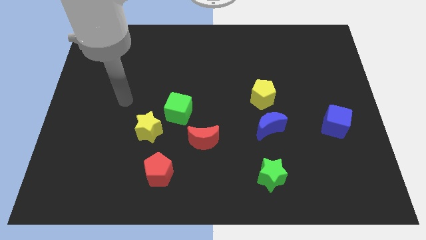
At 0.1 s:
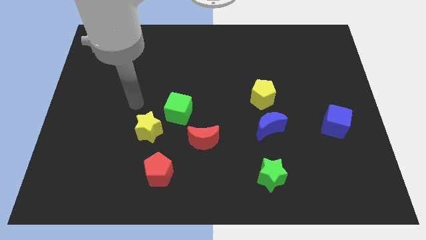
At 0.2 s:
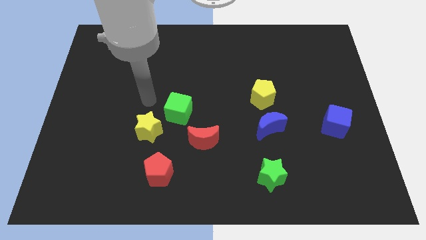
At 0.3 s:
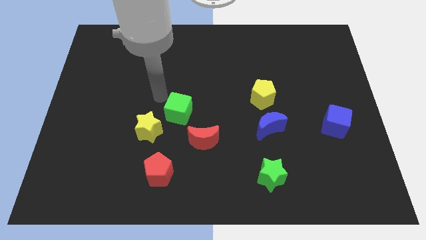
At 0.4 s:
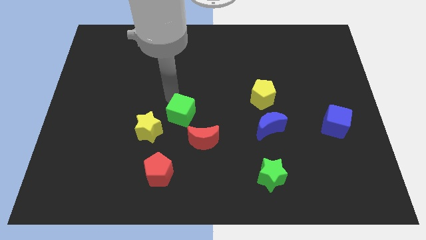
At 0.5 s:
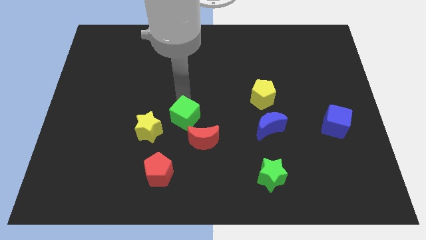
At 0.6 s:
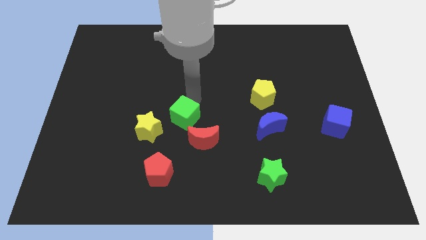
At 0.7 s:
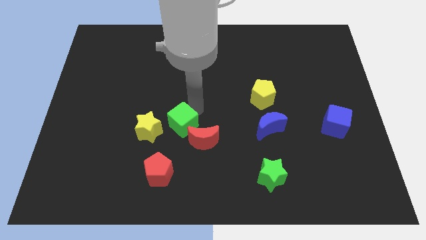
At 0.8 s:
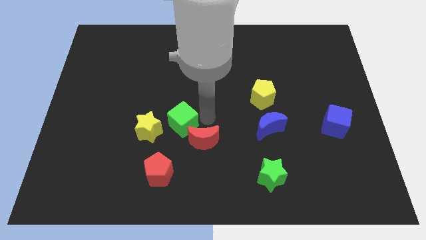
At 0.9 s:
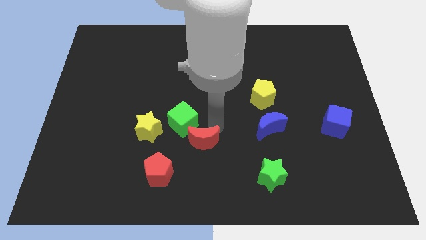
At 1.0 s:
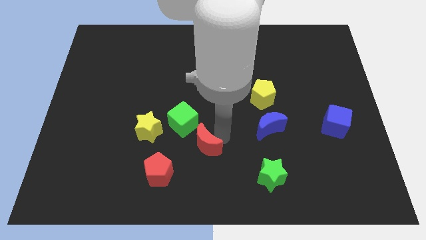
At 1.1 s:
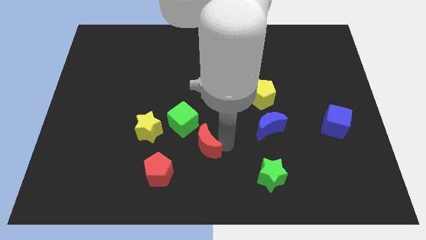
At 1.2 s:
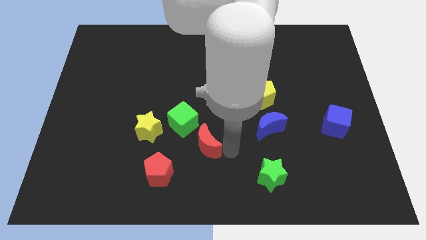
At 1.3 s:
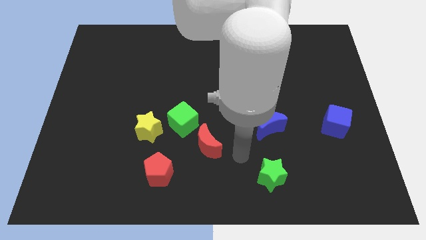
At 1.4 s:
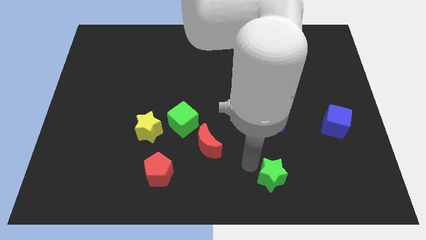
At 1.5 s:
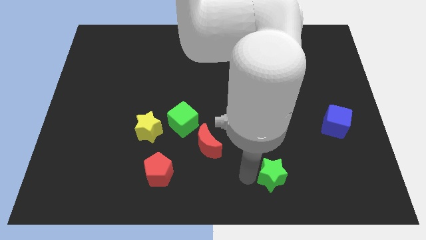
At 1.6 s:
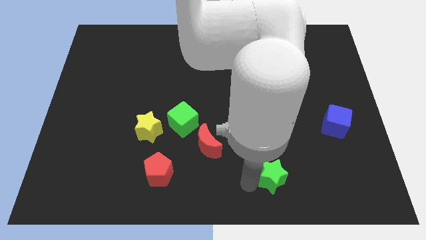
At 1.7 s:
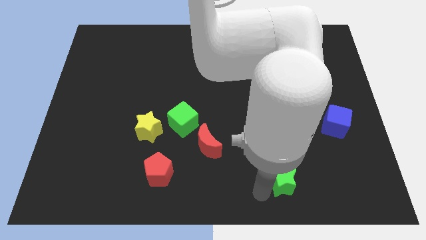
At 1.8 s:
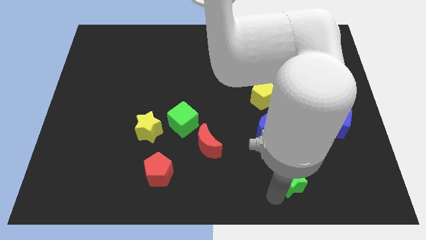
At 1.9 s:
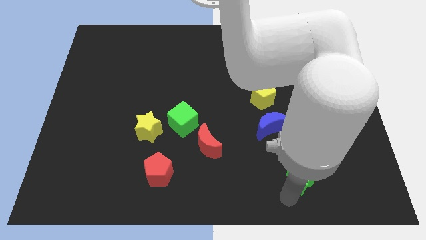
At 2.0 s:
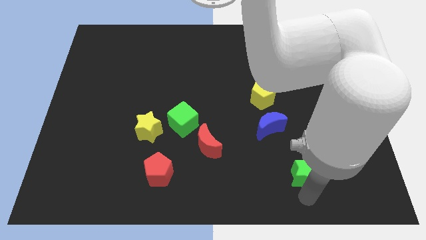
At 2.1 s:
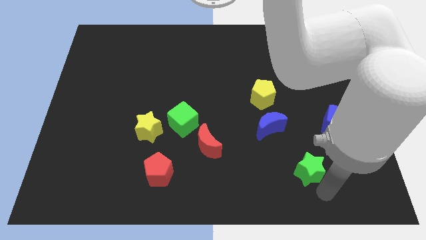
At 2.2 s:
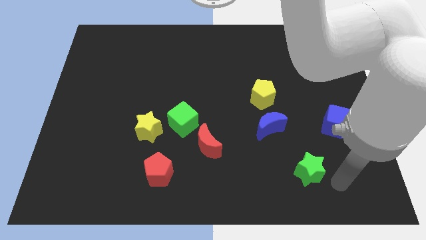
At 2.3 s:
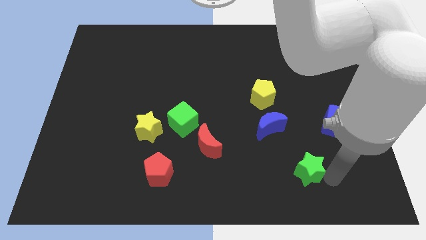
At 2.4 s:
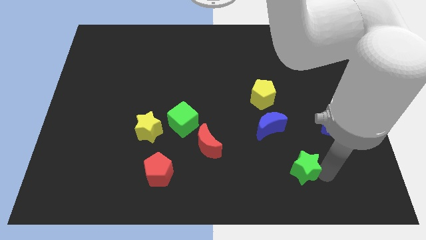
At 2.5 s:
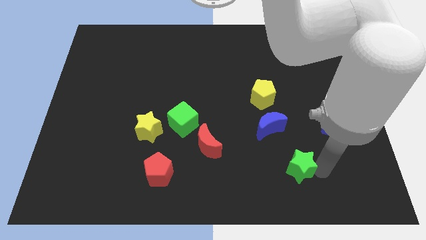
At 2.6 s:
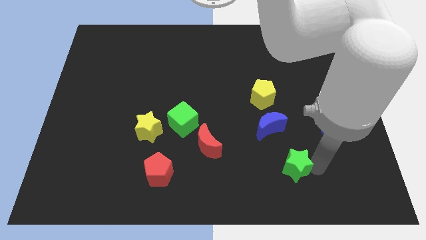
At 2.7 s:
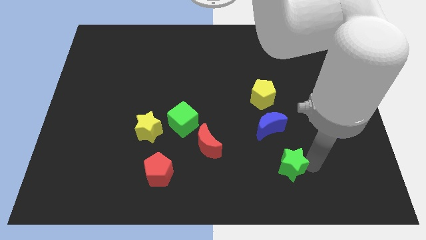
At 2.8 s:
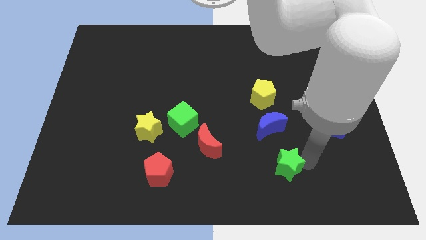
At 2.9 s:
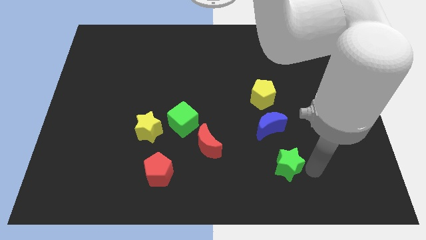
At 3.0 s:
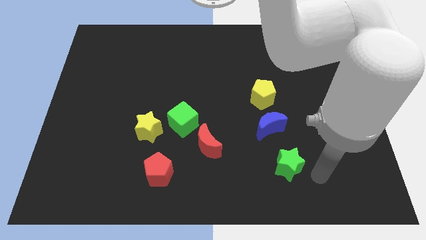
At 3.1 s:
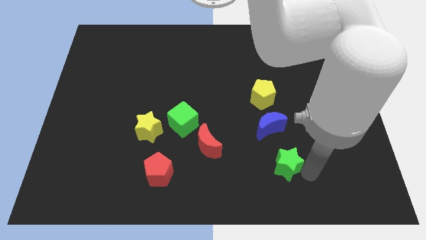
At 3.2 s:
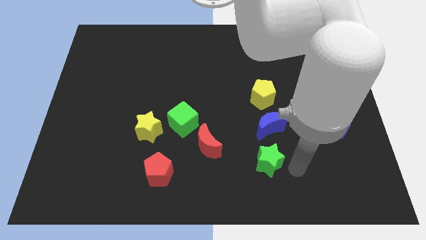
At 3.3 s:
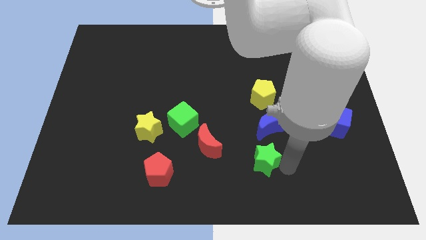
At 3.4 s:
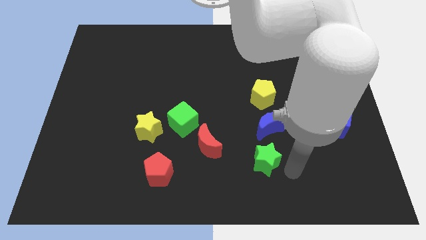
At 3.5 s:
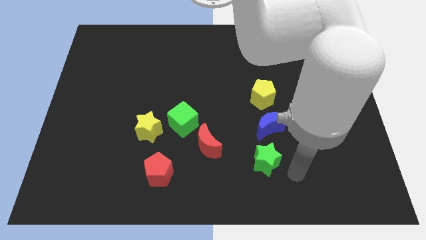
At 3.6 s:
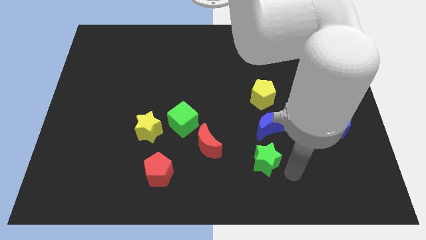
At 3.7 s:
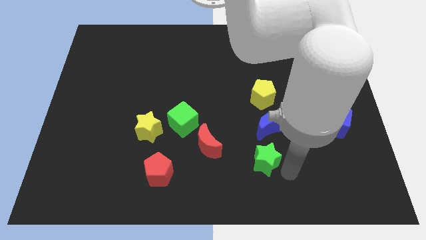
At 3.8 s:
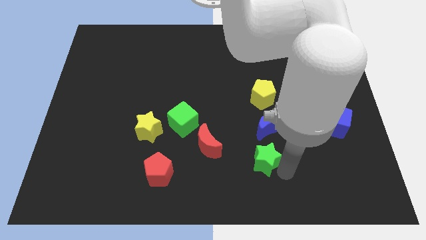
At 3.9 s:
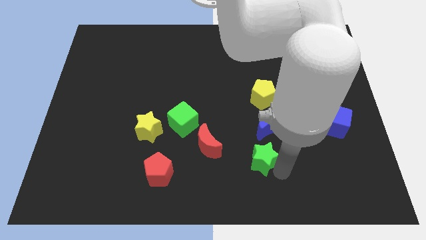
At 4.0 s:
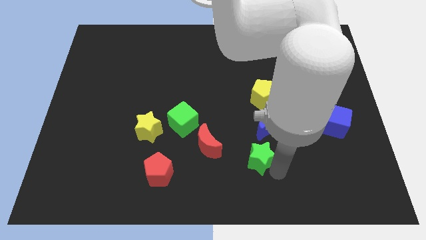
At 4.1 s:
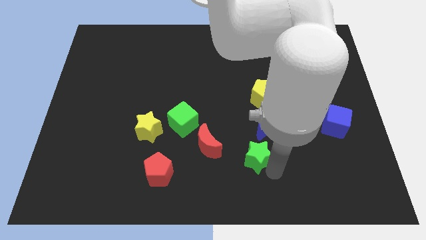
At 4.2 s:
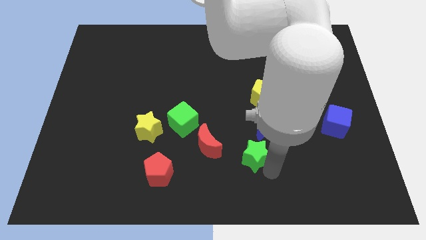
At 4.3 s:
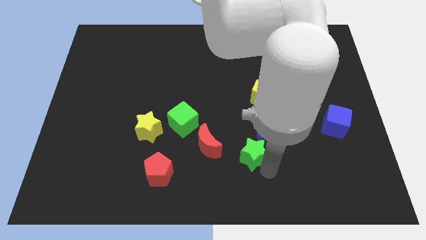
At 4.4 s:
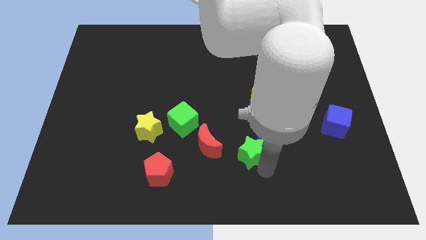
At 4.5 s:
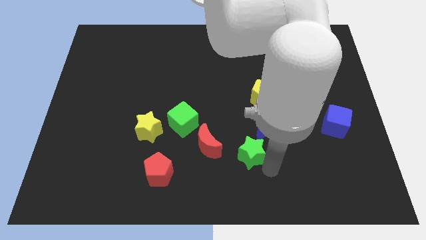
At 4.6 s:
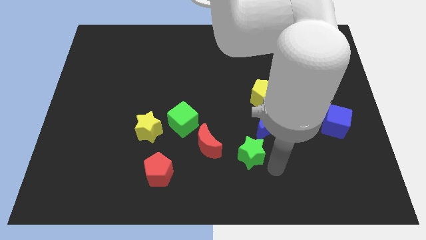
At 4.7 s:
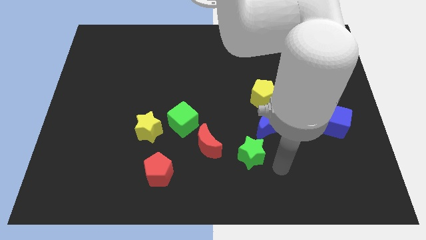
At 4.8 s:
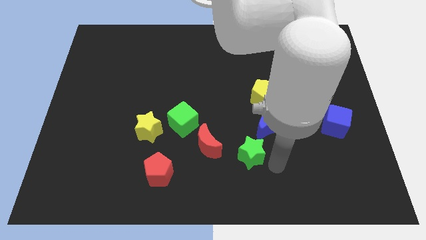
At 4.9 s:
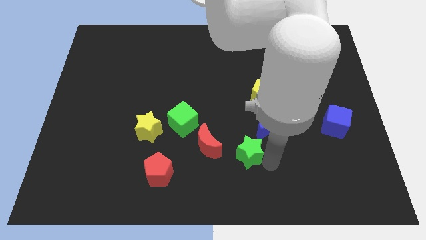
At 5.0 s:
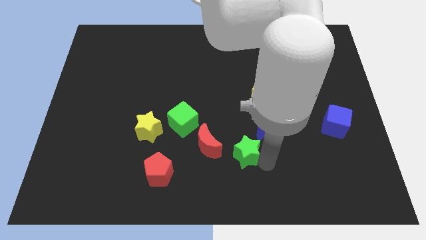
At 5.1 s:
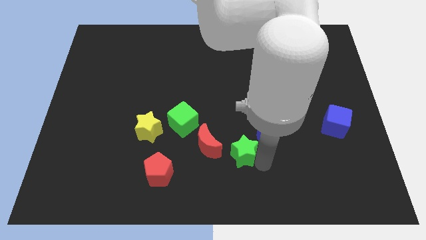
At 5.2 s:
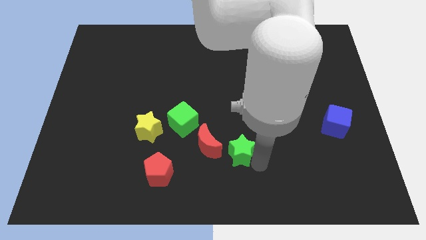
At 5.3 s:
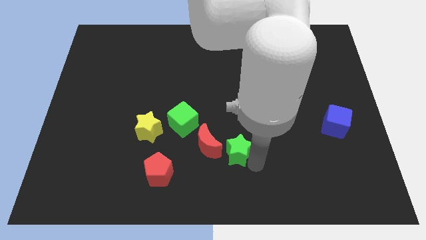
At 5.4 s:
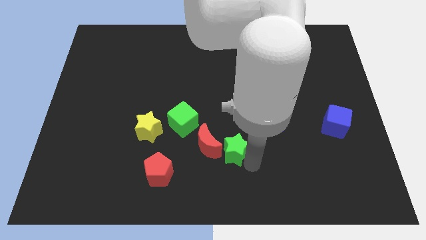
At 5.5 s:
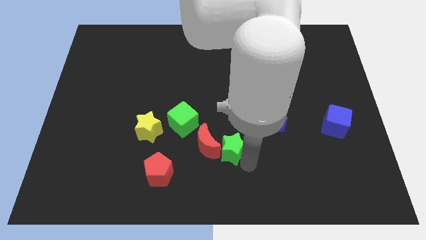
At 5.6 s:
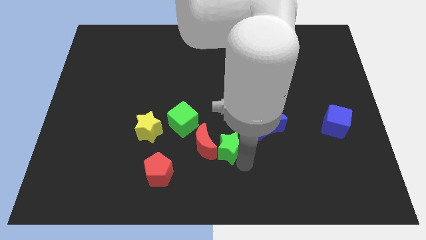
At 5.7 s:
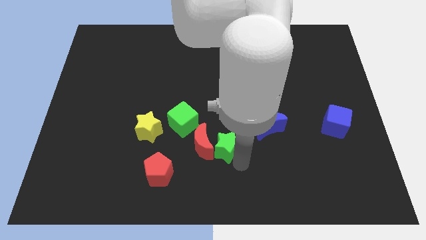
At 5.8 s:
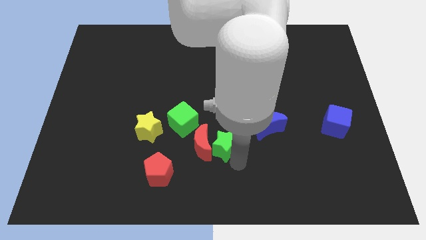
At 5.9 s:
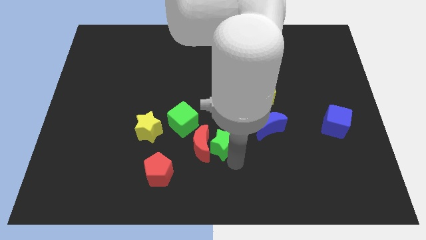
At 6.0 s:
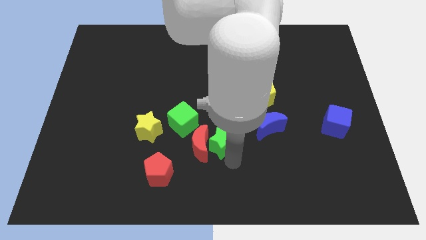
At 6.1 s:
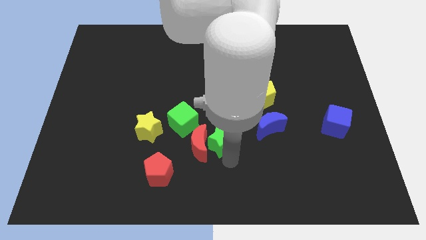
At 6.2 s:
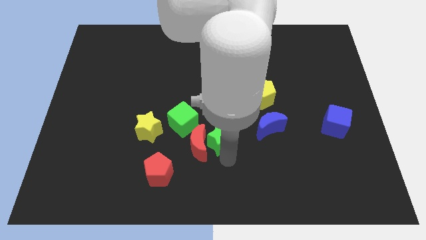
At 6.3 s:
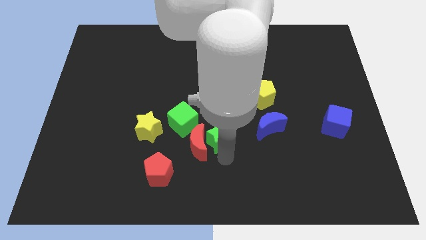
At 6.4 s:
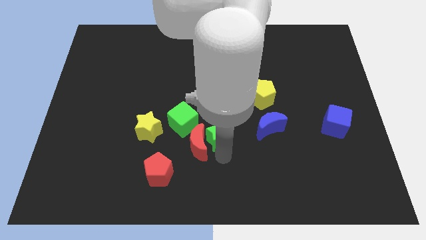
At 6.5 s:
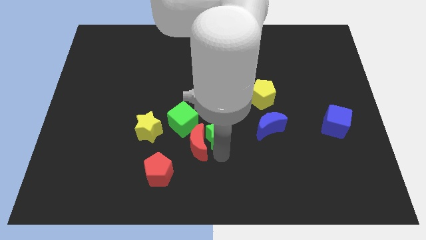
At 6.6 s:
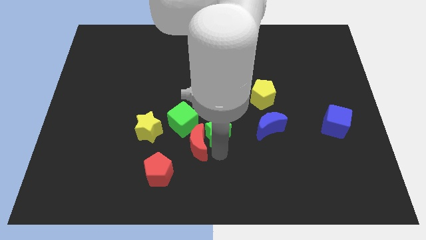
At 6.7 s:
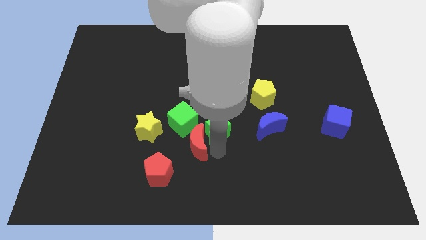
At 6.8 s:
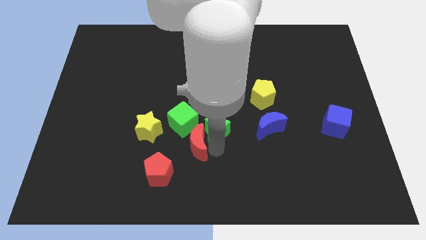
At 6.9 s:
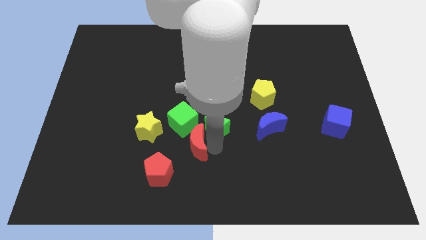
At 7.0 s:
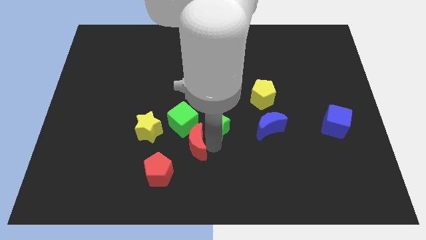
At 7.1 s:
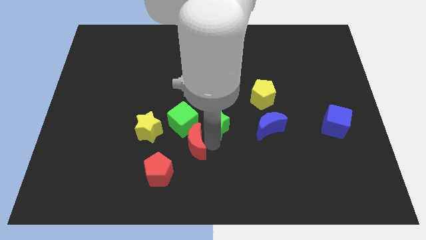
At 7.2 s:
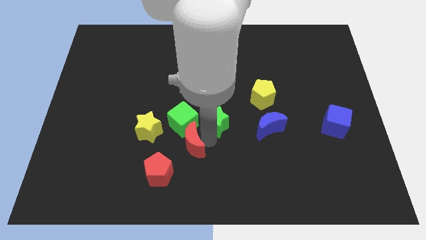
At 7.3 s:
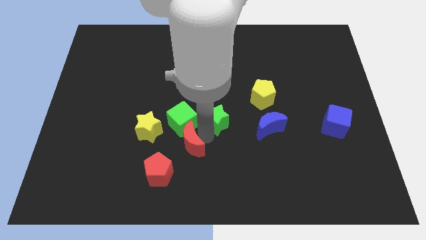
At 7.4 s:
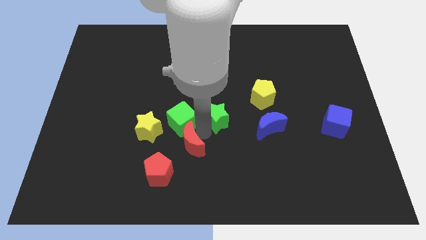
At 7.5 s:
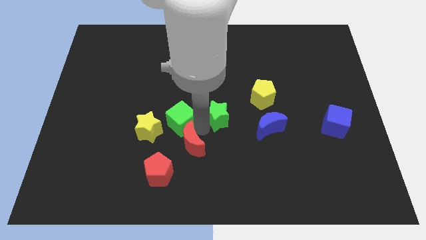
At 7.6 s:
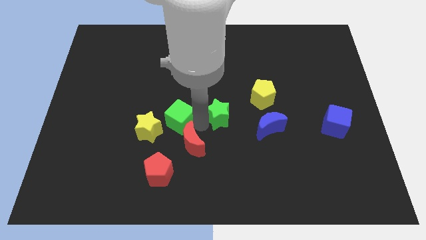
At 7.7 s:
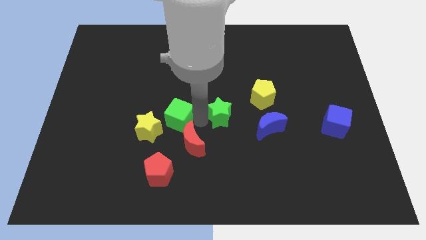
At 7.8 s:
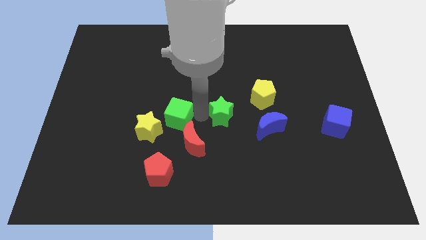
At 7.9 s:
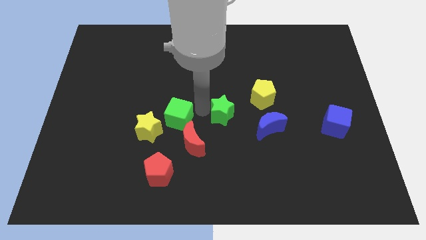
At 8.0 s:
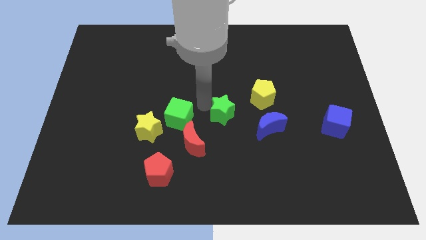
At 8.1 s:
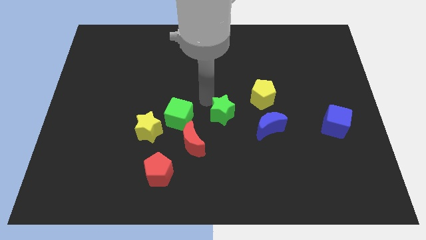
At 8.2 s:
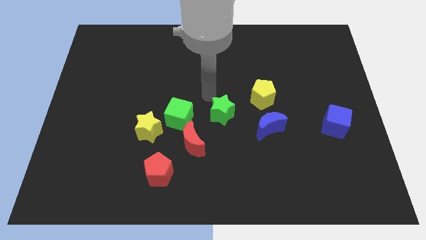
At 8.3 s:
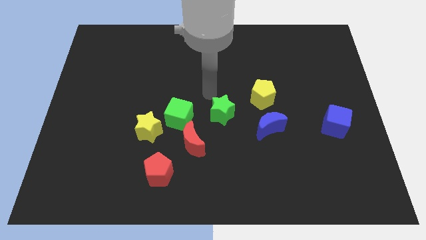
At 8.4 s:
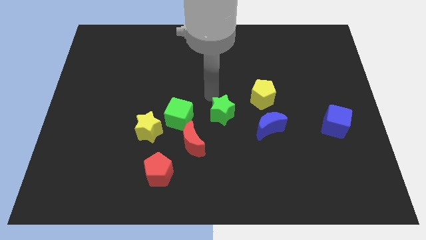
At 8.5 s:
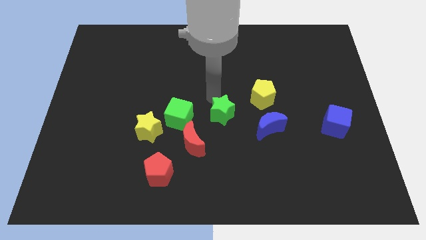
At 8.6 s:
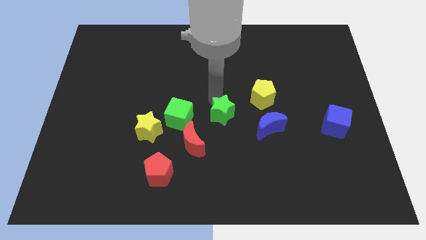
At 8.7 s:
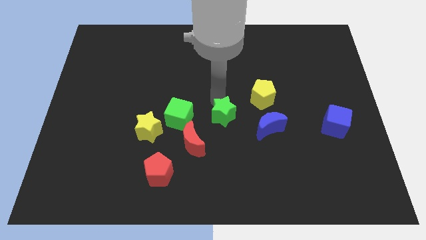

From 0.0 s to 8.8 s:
move the green star to the top left of the blue moon
